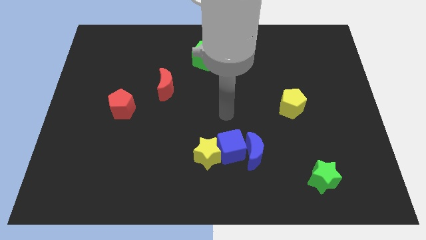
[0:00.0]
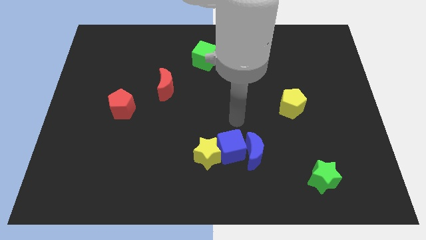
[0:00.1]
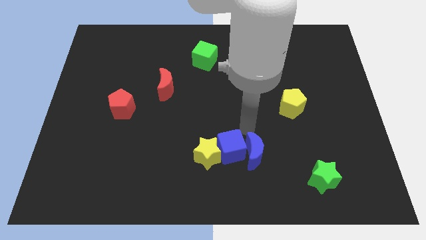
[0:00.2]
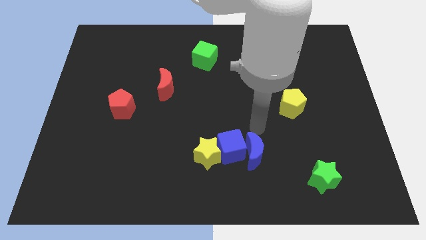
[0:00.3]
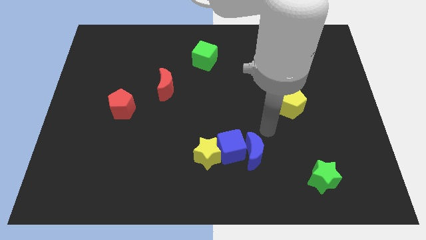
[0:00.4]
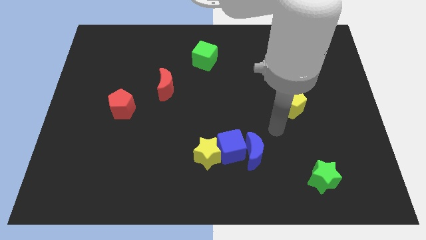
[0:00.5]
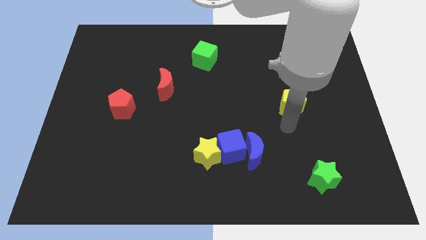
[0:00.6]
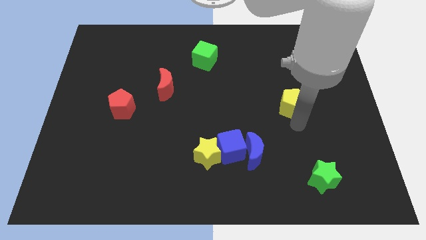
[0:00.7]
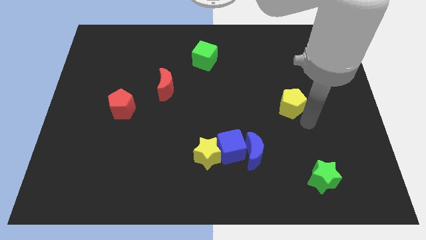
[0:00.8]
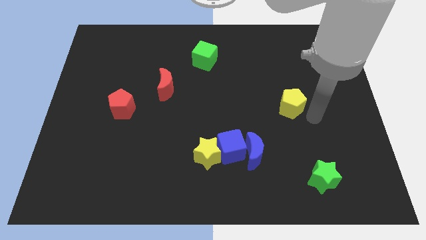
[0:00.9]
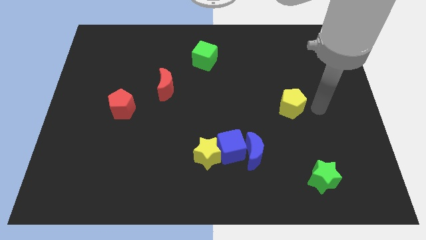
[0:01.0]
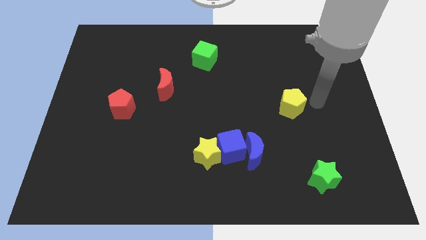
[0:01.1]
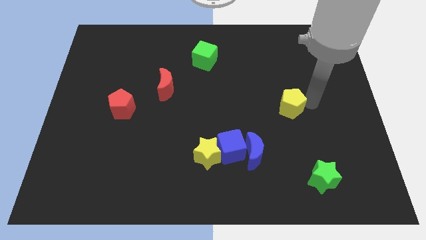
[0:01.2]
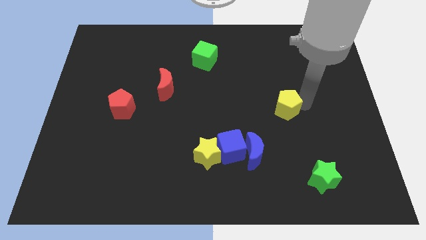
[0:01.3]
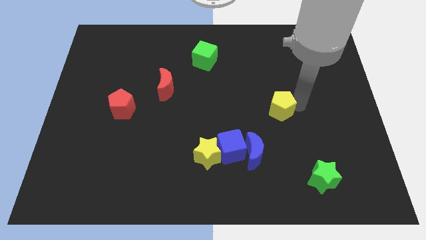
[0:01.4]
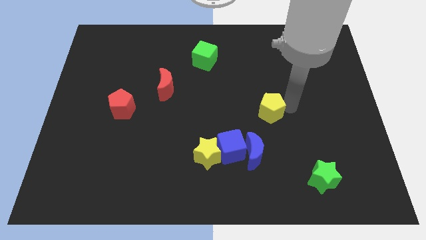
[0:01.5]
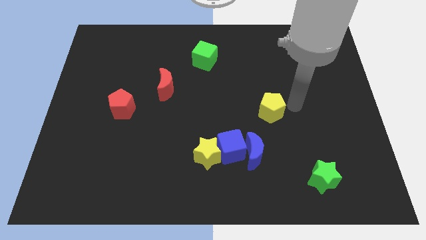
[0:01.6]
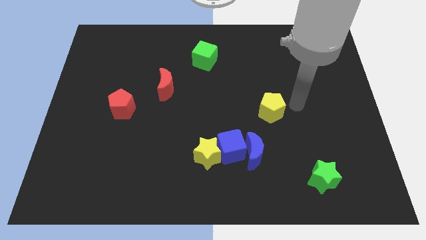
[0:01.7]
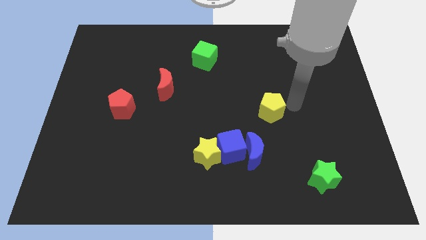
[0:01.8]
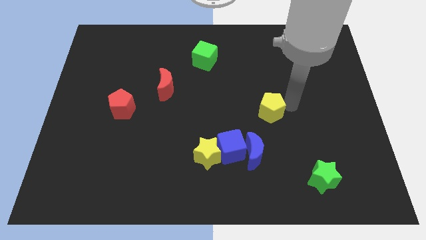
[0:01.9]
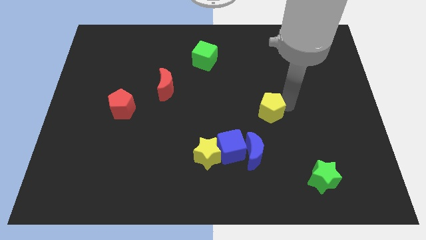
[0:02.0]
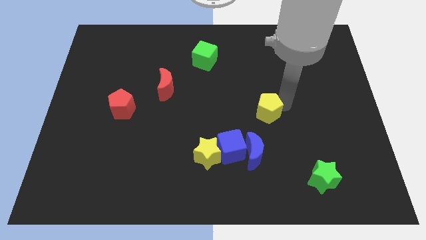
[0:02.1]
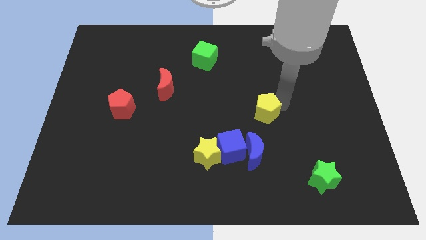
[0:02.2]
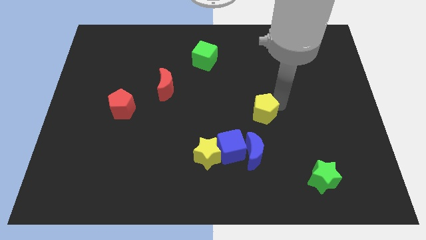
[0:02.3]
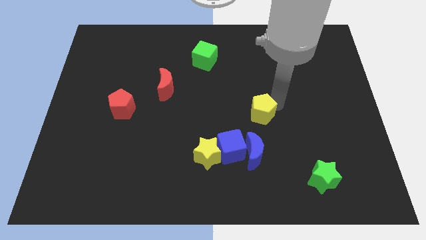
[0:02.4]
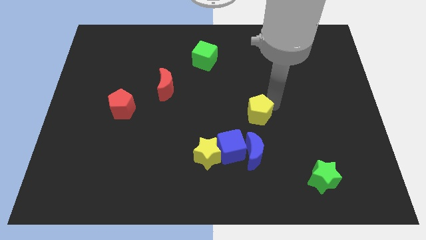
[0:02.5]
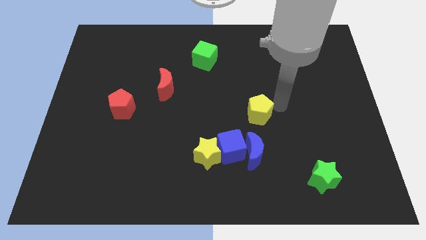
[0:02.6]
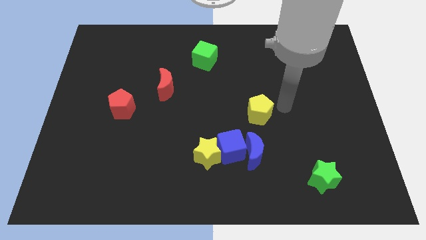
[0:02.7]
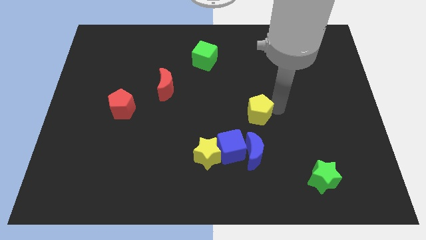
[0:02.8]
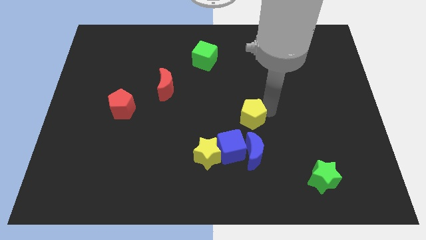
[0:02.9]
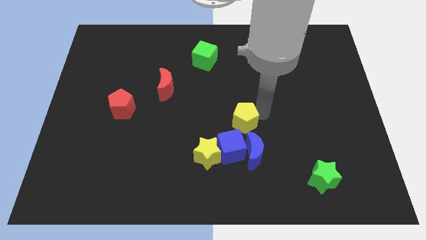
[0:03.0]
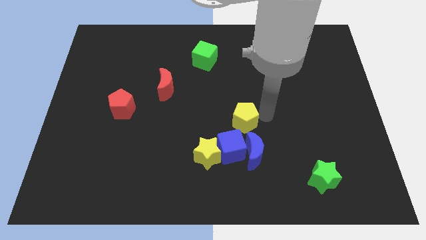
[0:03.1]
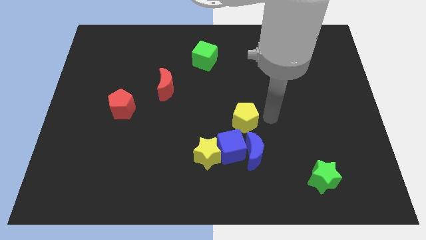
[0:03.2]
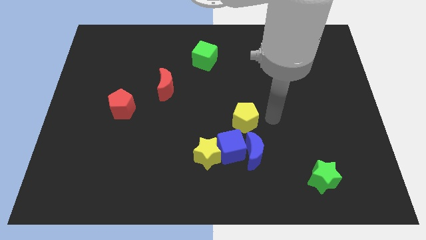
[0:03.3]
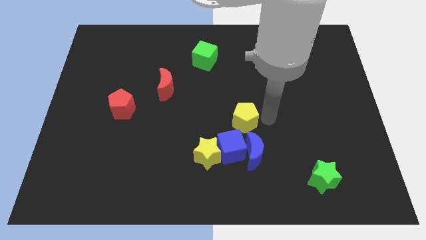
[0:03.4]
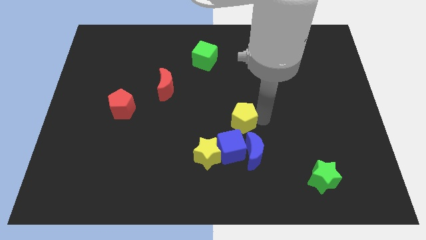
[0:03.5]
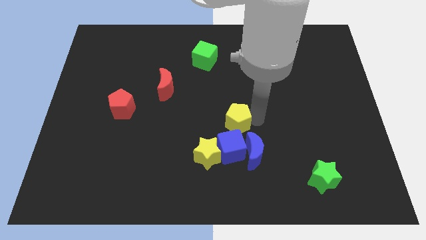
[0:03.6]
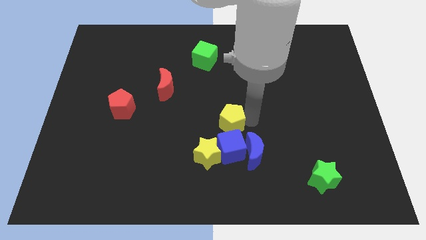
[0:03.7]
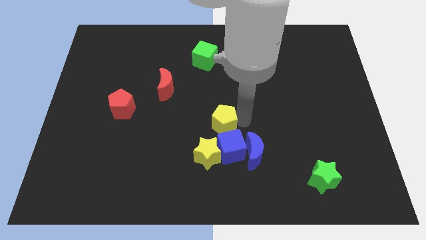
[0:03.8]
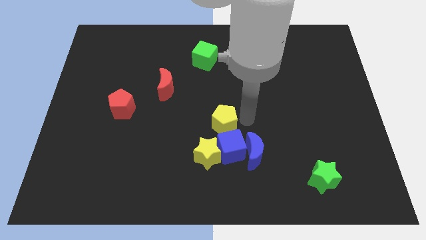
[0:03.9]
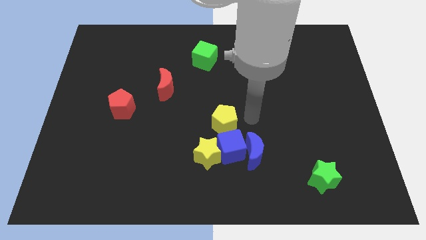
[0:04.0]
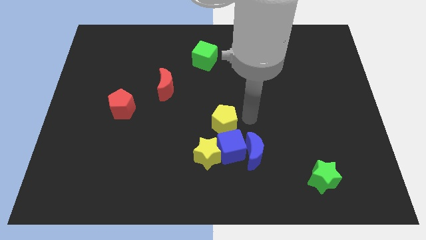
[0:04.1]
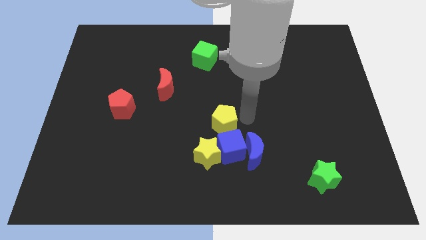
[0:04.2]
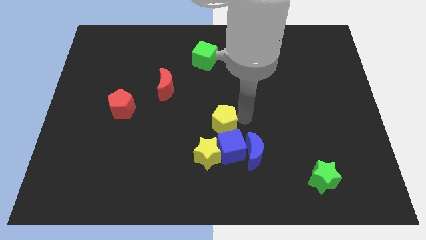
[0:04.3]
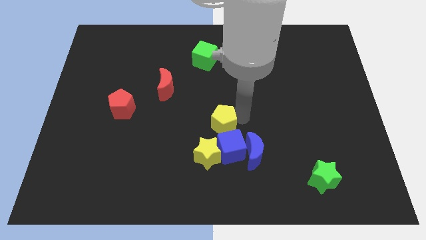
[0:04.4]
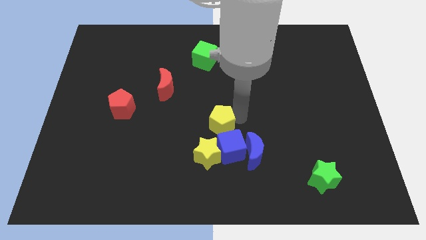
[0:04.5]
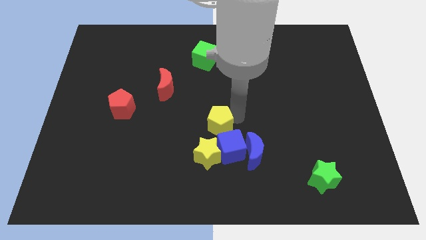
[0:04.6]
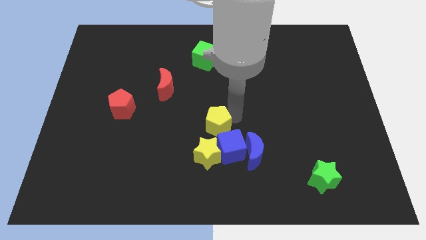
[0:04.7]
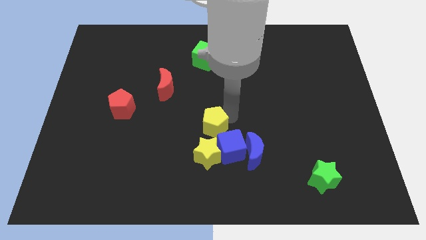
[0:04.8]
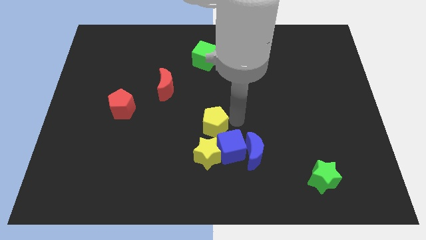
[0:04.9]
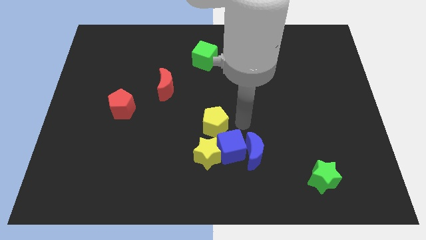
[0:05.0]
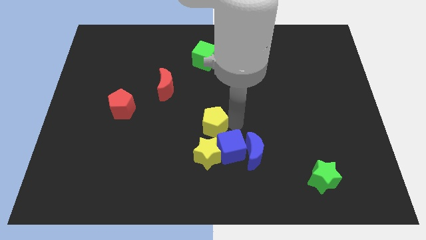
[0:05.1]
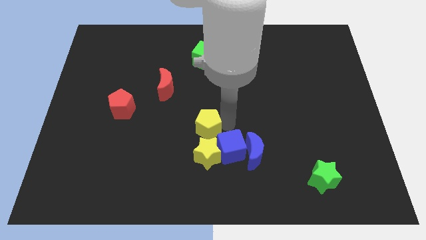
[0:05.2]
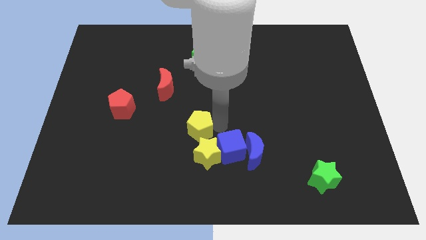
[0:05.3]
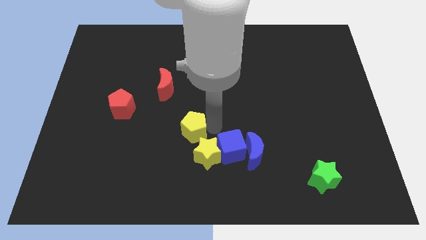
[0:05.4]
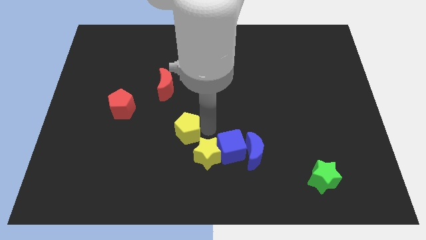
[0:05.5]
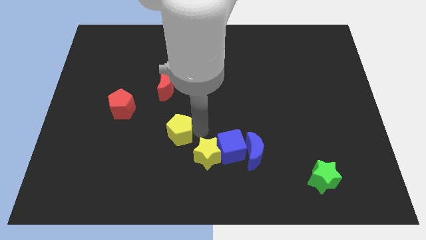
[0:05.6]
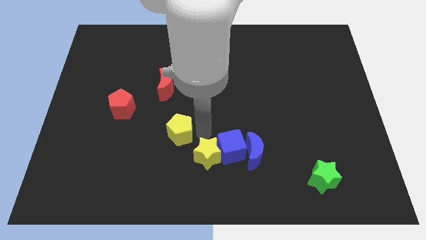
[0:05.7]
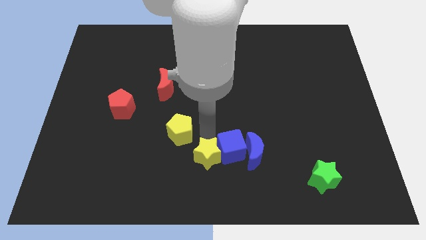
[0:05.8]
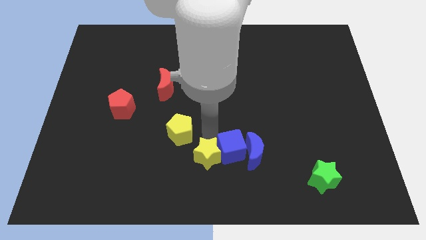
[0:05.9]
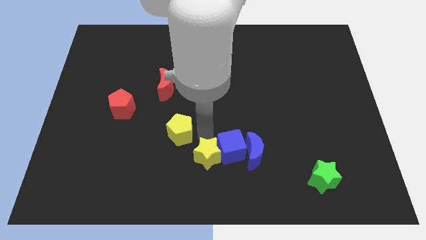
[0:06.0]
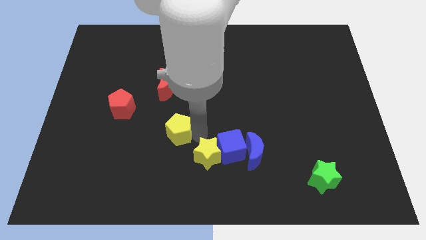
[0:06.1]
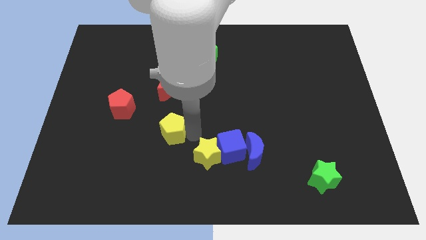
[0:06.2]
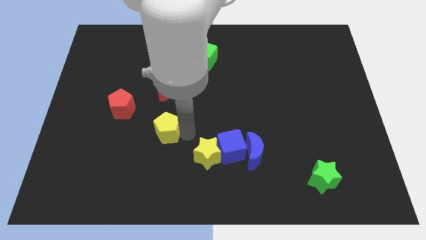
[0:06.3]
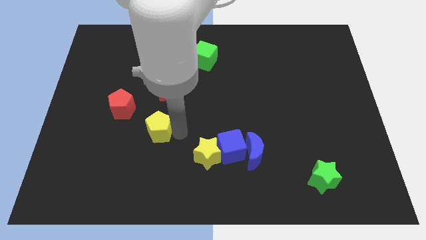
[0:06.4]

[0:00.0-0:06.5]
slide the yellow pentagon to the bottom right side of the red pentagon
